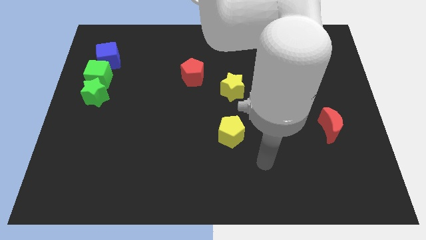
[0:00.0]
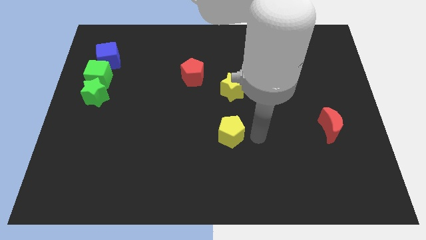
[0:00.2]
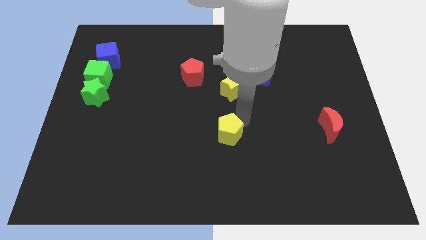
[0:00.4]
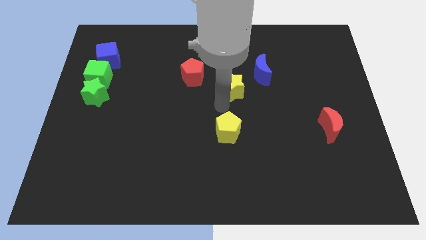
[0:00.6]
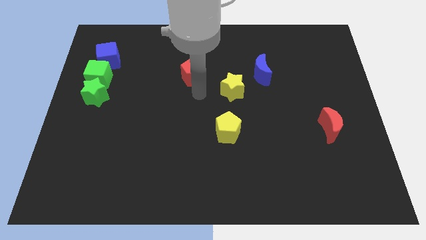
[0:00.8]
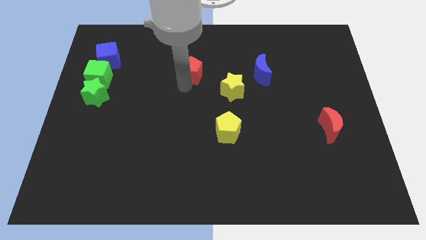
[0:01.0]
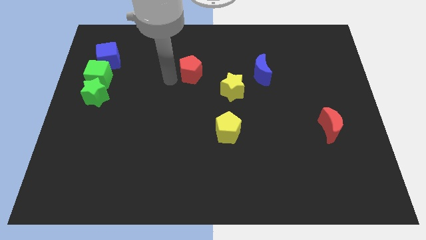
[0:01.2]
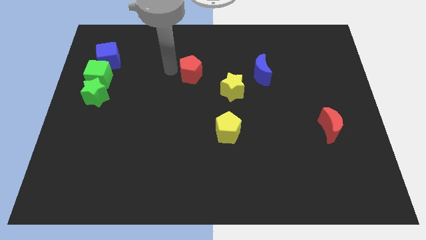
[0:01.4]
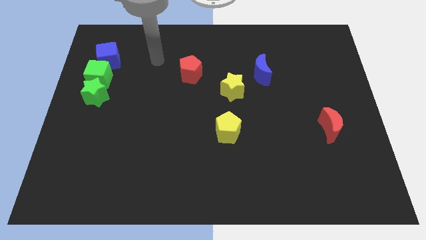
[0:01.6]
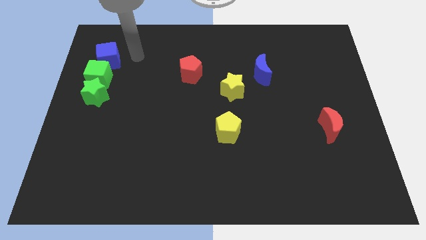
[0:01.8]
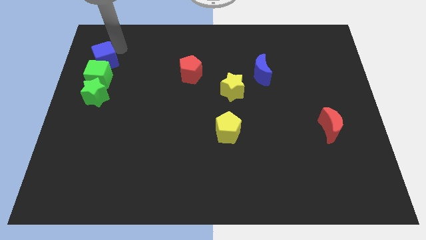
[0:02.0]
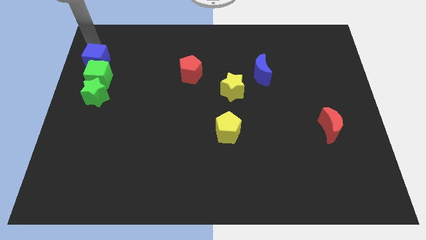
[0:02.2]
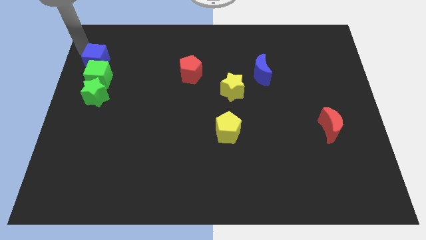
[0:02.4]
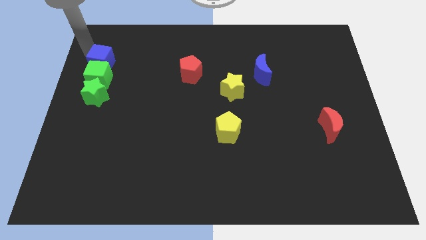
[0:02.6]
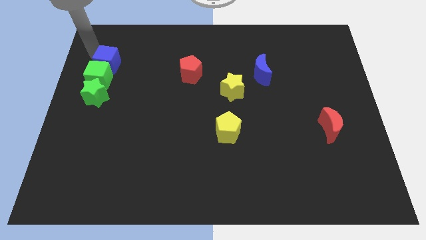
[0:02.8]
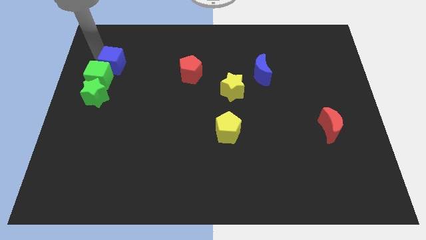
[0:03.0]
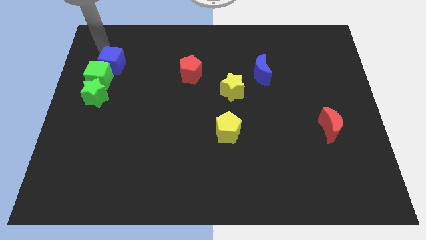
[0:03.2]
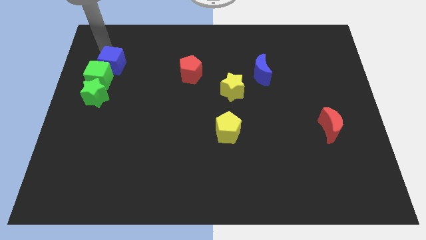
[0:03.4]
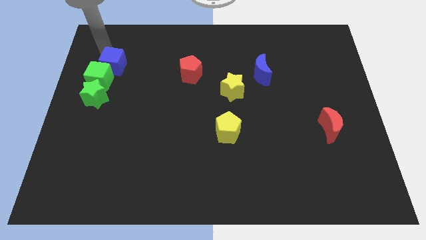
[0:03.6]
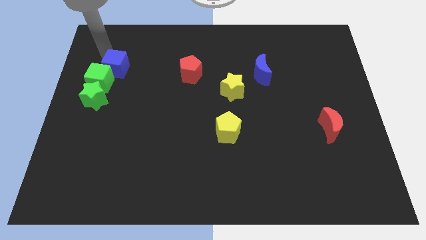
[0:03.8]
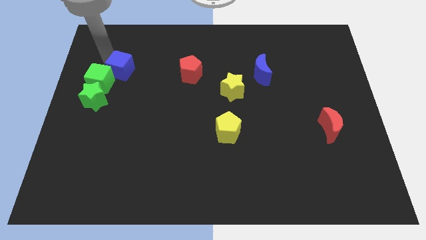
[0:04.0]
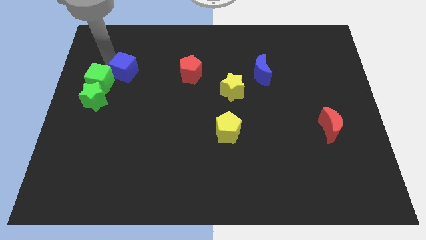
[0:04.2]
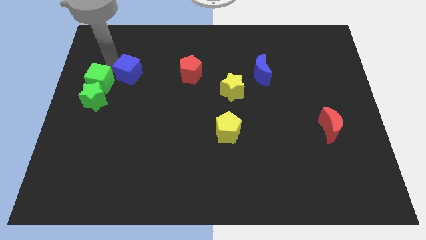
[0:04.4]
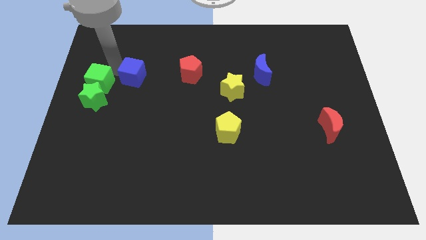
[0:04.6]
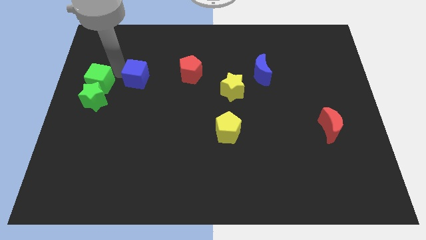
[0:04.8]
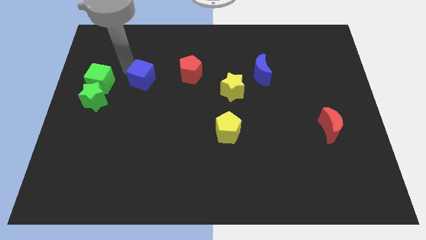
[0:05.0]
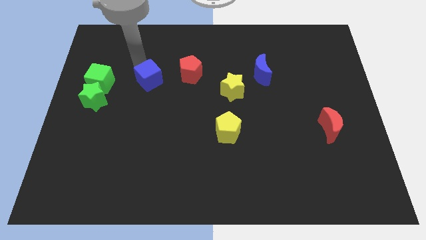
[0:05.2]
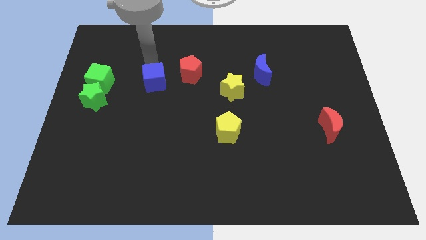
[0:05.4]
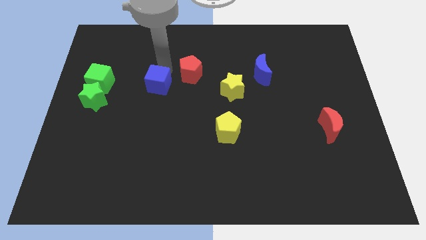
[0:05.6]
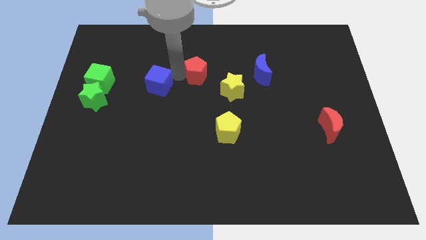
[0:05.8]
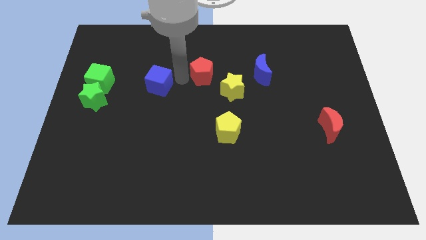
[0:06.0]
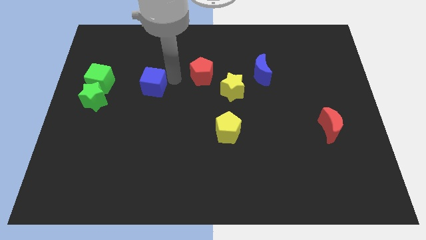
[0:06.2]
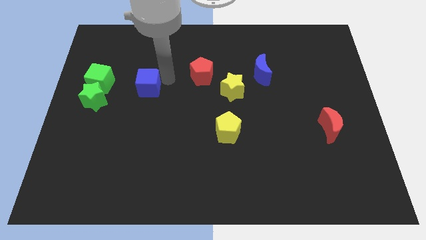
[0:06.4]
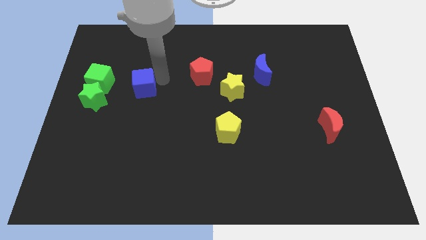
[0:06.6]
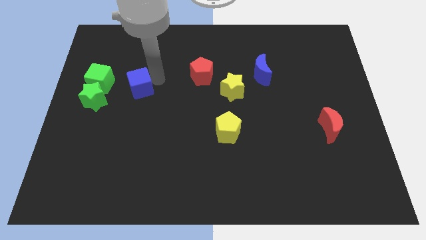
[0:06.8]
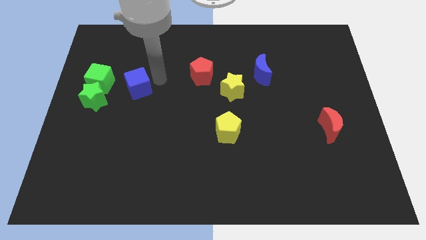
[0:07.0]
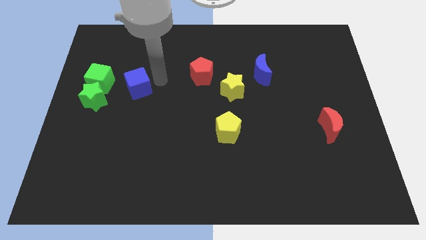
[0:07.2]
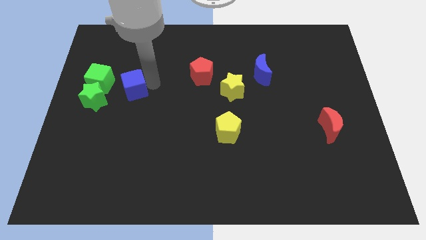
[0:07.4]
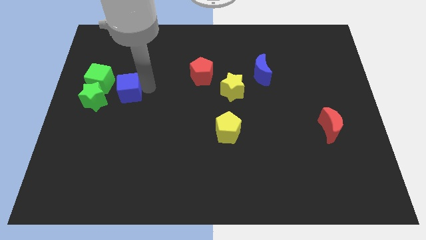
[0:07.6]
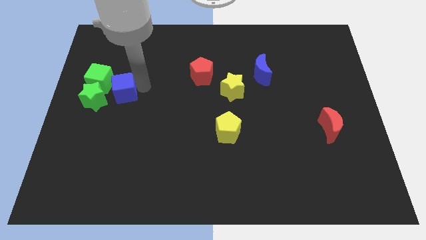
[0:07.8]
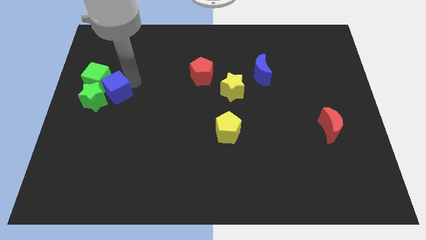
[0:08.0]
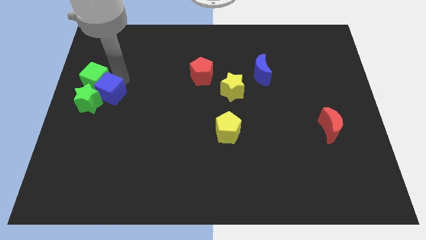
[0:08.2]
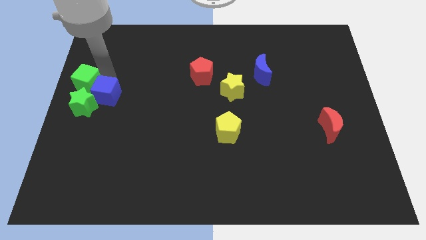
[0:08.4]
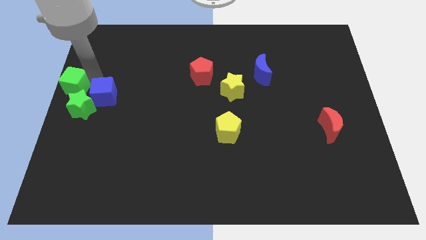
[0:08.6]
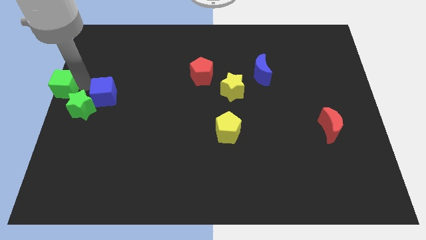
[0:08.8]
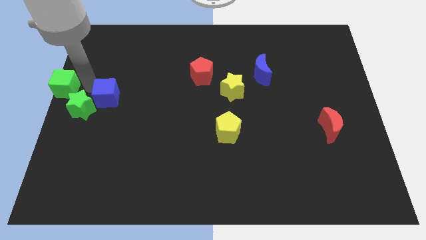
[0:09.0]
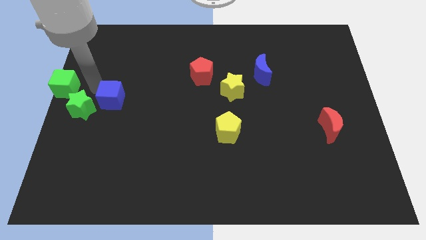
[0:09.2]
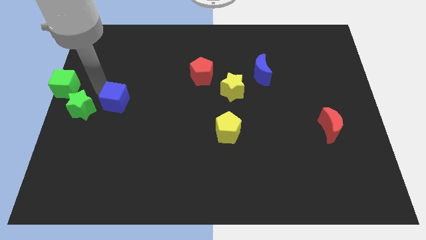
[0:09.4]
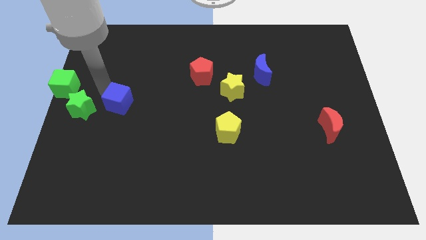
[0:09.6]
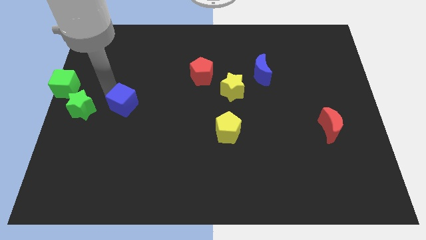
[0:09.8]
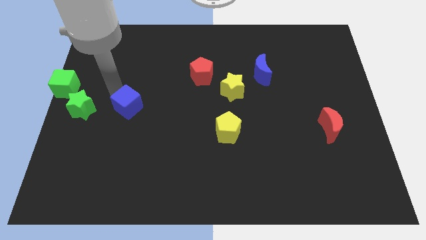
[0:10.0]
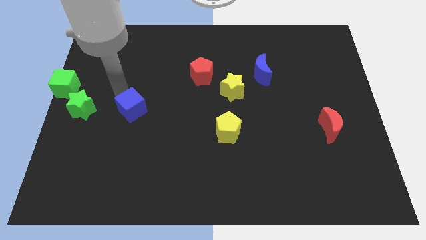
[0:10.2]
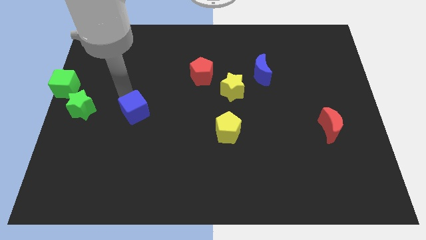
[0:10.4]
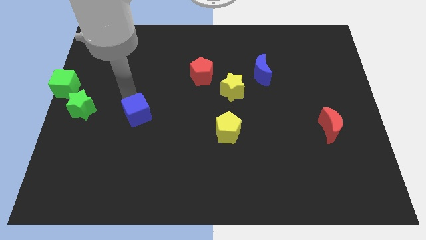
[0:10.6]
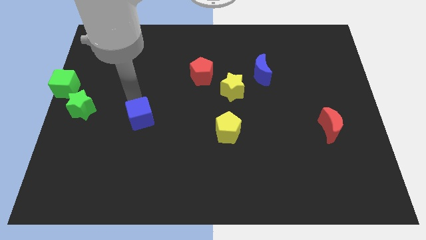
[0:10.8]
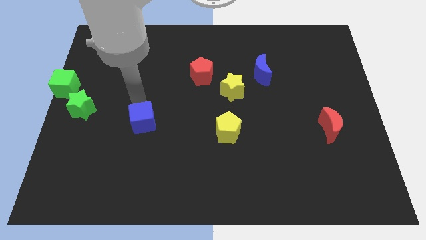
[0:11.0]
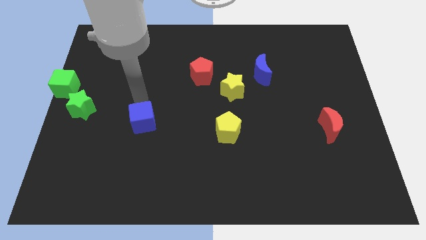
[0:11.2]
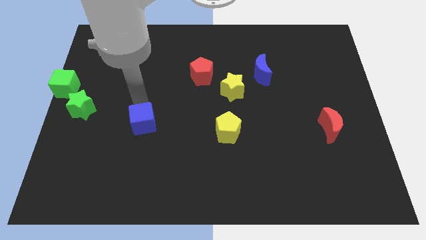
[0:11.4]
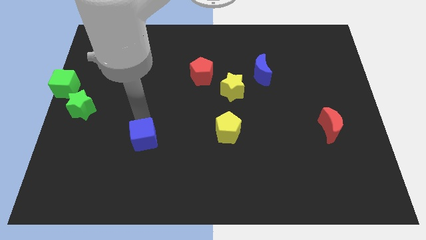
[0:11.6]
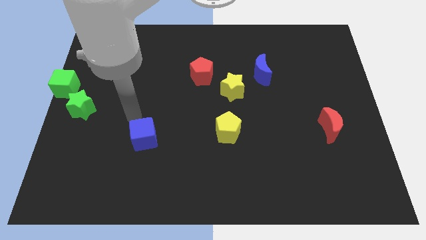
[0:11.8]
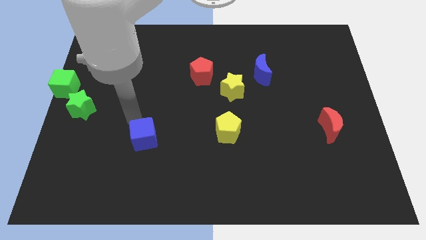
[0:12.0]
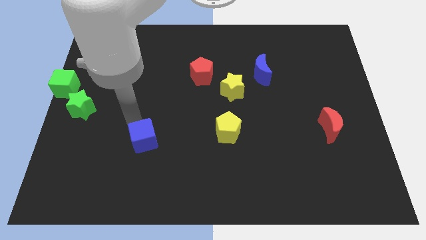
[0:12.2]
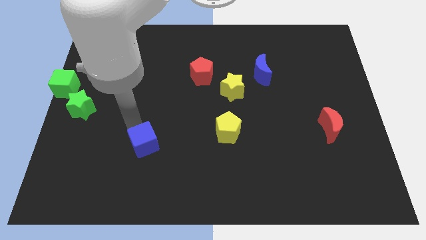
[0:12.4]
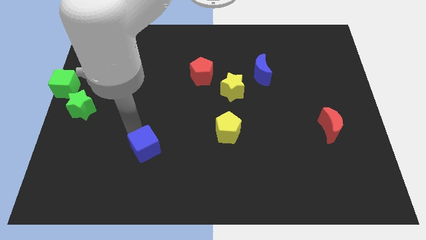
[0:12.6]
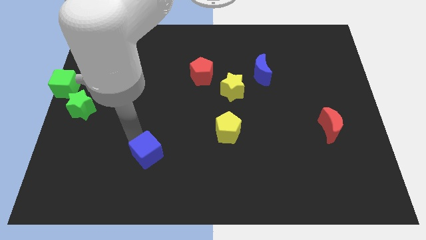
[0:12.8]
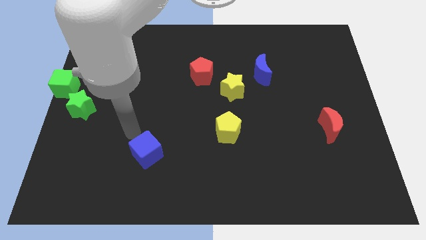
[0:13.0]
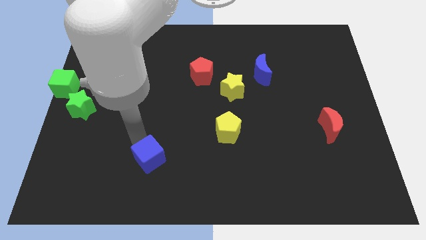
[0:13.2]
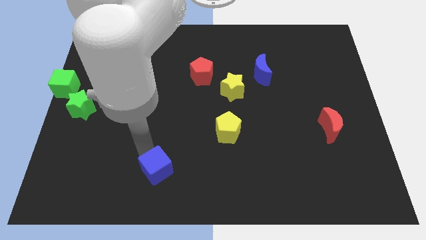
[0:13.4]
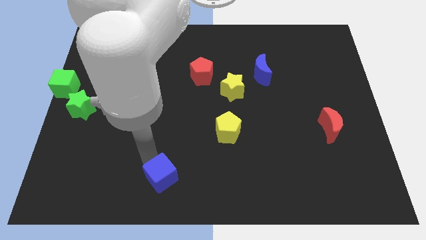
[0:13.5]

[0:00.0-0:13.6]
move the blue cube to the bottom
